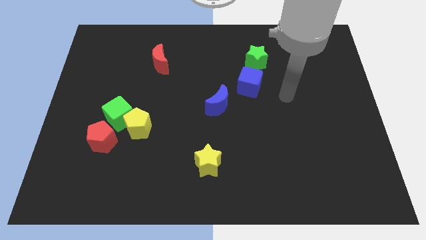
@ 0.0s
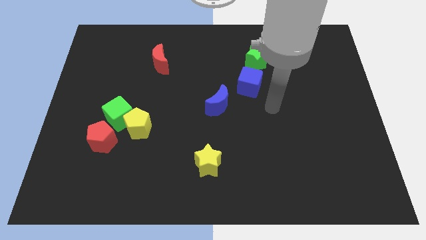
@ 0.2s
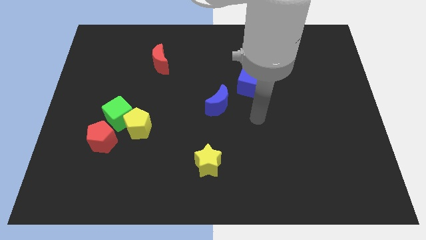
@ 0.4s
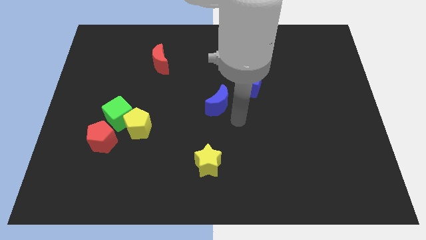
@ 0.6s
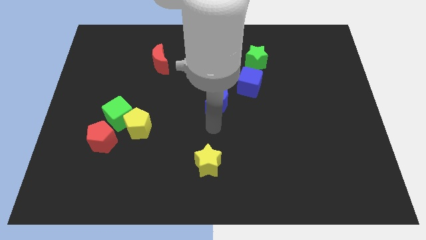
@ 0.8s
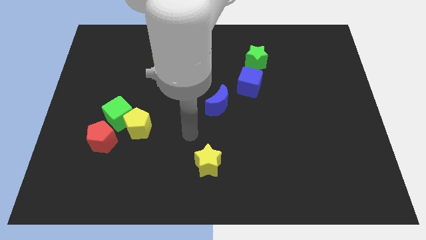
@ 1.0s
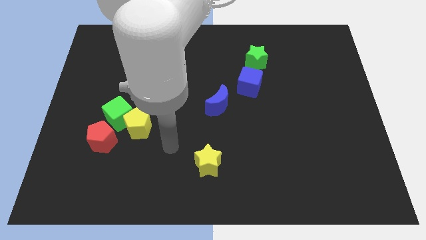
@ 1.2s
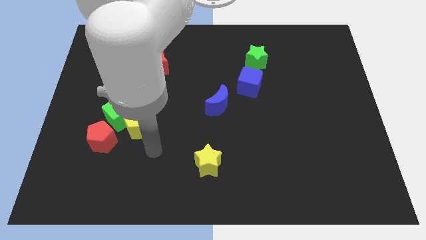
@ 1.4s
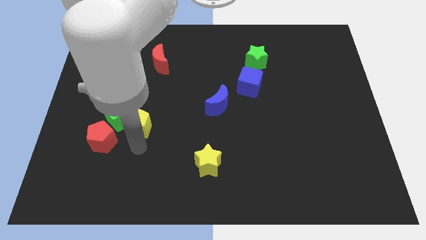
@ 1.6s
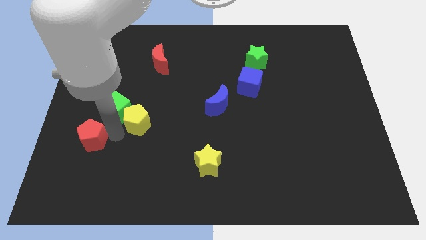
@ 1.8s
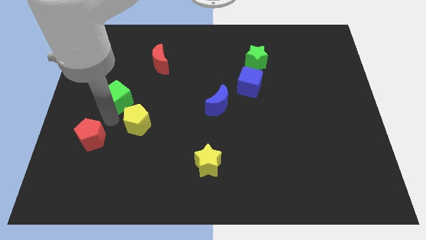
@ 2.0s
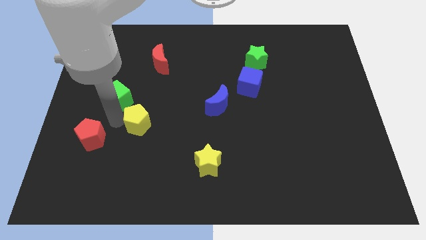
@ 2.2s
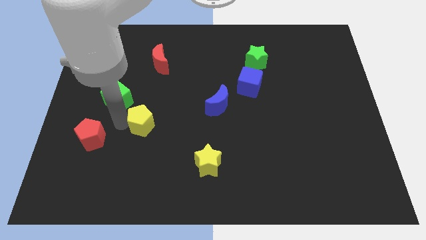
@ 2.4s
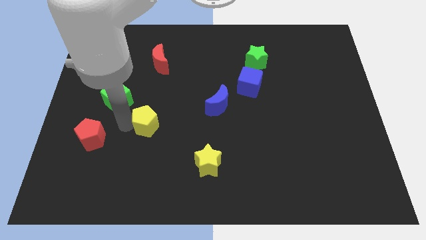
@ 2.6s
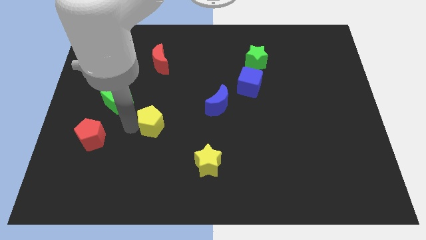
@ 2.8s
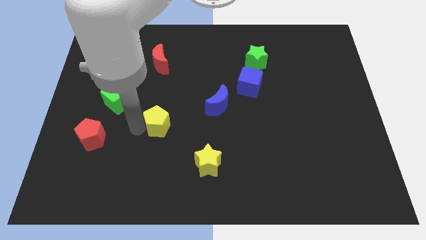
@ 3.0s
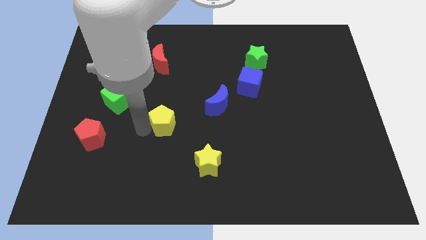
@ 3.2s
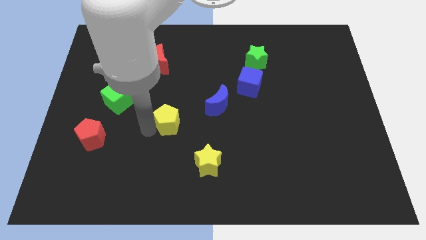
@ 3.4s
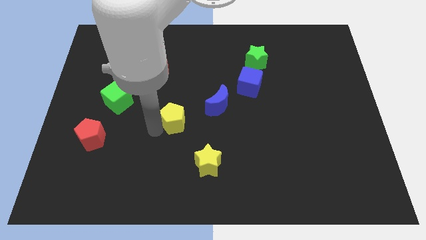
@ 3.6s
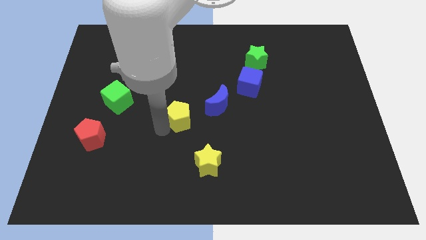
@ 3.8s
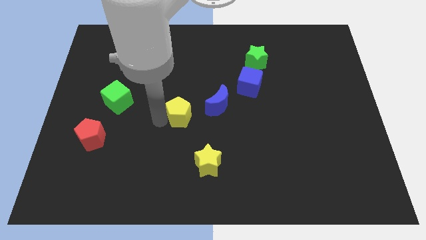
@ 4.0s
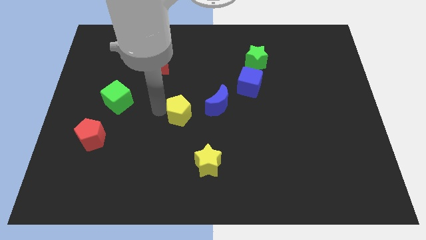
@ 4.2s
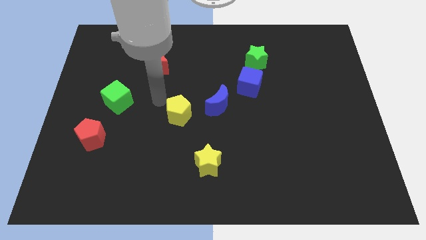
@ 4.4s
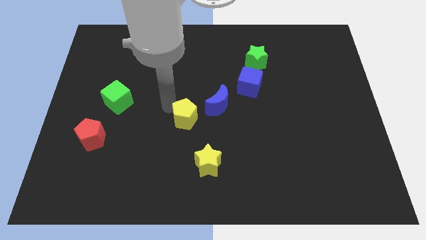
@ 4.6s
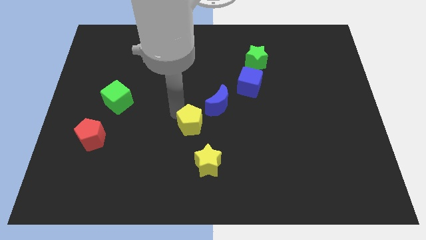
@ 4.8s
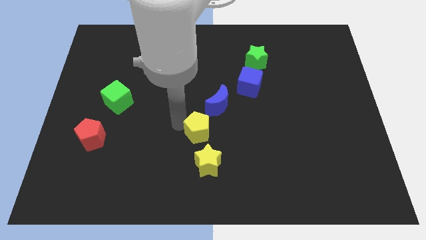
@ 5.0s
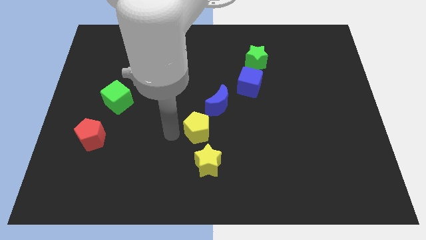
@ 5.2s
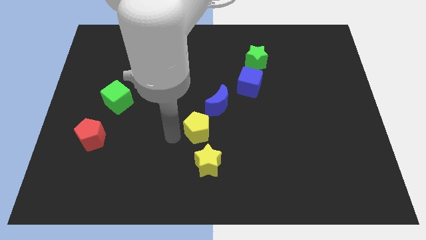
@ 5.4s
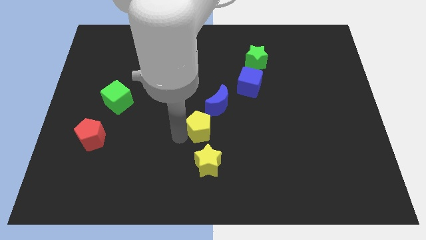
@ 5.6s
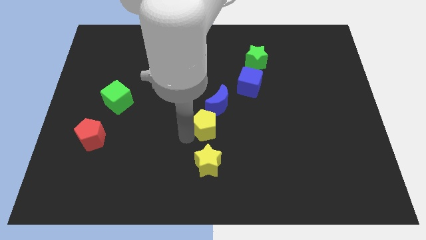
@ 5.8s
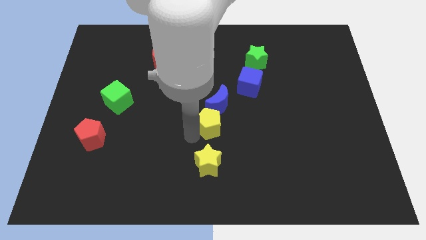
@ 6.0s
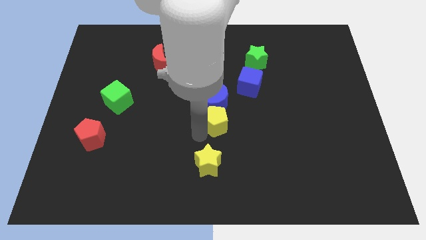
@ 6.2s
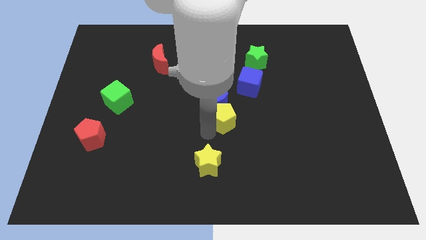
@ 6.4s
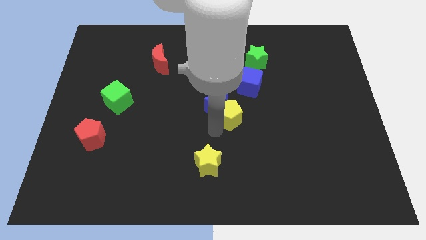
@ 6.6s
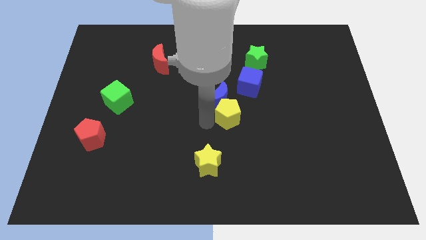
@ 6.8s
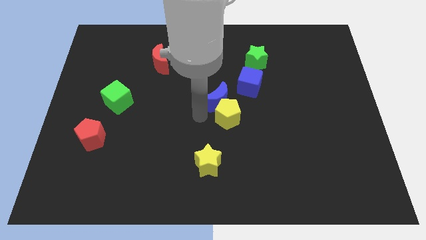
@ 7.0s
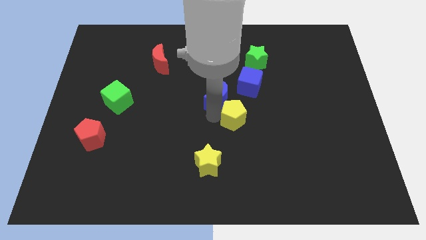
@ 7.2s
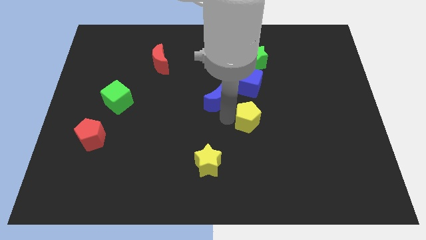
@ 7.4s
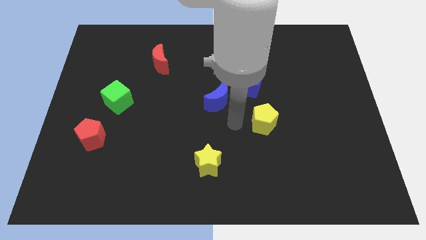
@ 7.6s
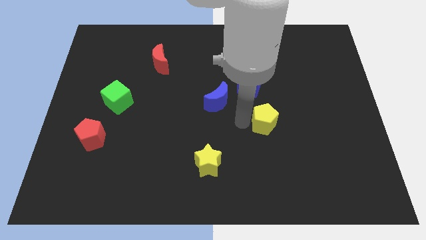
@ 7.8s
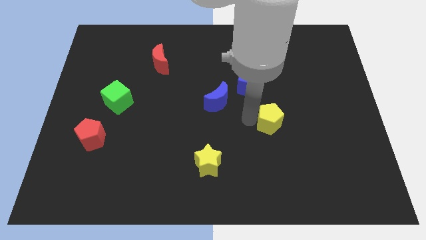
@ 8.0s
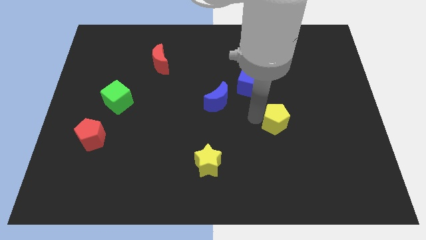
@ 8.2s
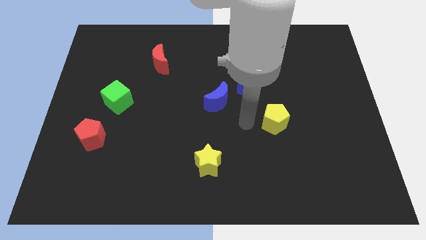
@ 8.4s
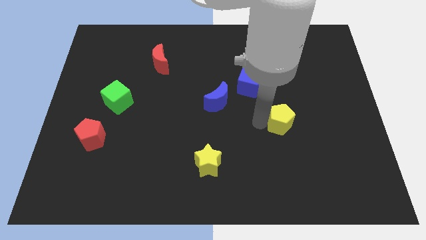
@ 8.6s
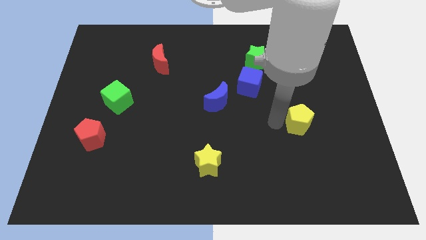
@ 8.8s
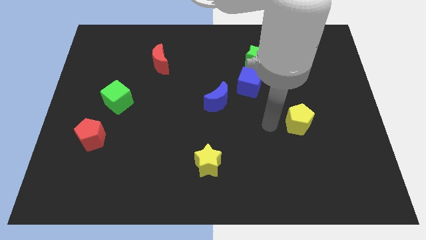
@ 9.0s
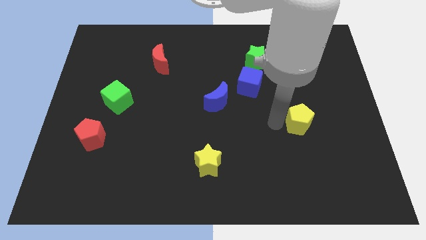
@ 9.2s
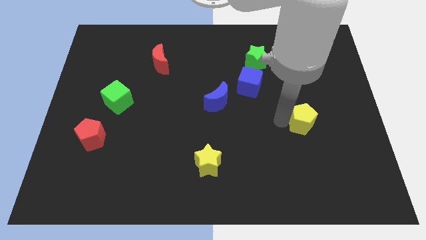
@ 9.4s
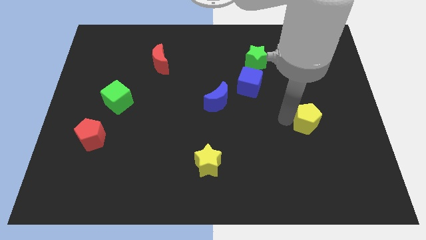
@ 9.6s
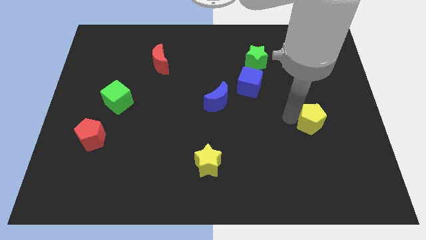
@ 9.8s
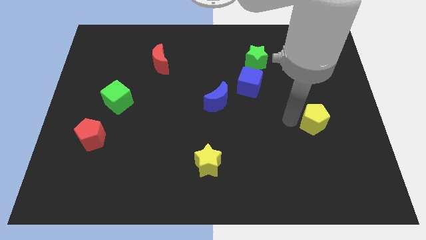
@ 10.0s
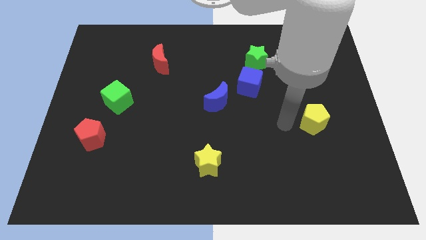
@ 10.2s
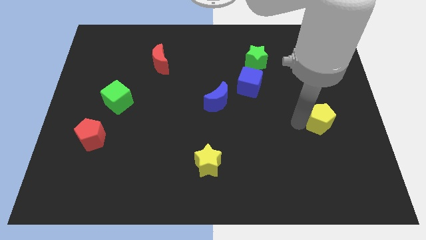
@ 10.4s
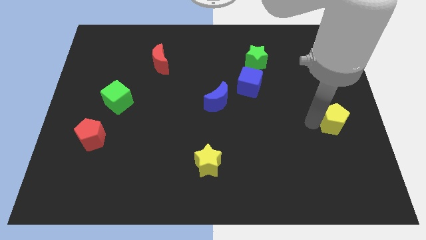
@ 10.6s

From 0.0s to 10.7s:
move the yellow pentagon to the right side of the board
